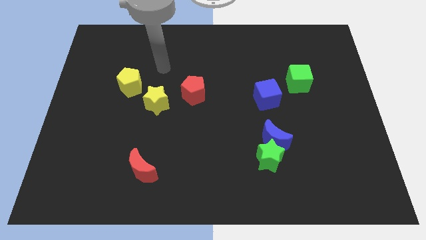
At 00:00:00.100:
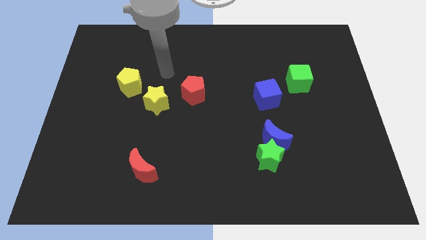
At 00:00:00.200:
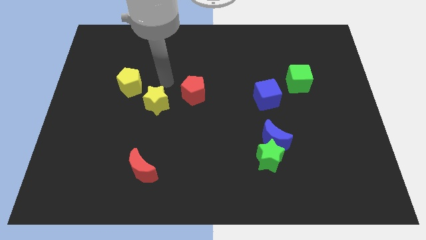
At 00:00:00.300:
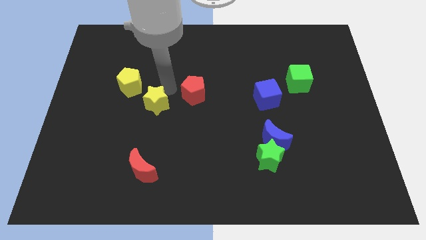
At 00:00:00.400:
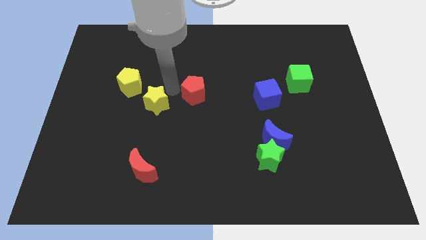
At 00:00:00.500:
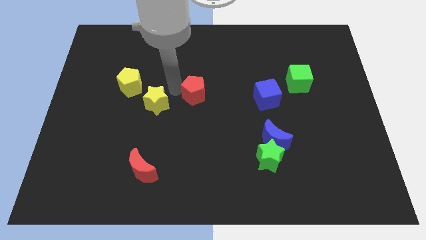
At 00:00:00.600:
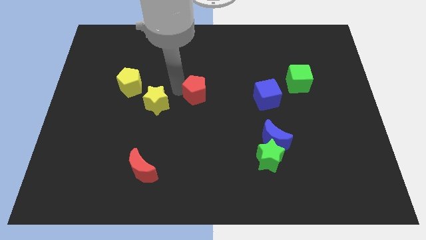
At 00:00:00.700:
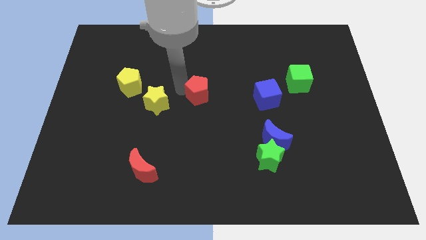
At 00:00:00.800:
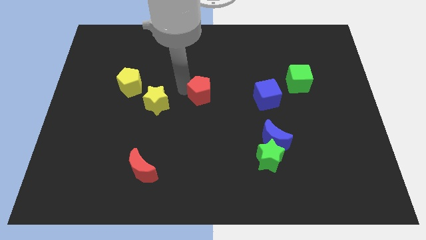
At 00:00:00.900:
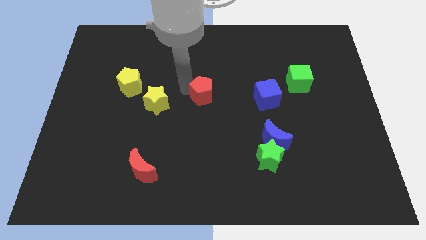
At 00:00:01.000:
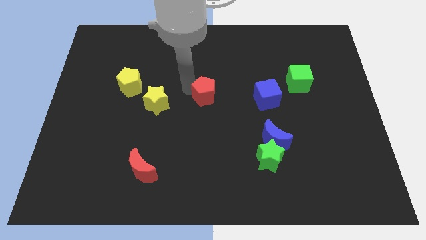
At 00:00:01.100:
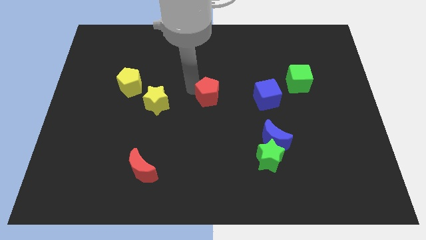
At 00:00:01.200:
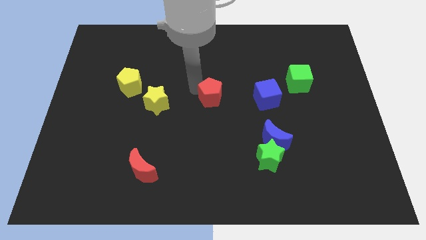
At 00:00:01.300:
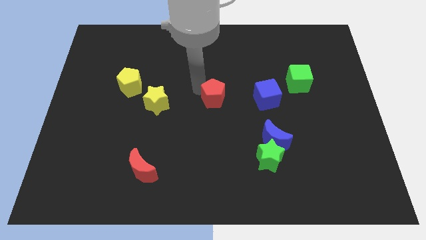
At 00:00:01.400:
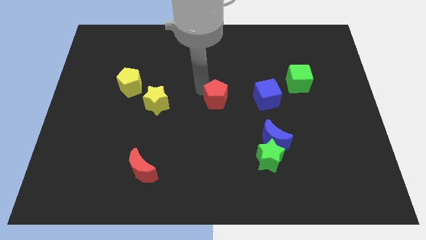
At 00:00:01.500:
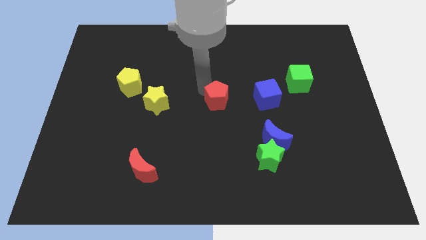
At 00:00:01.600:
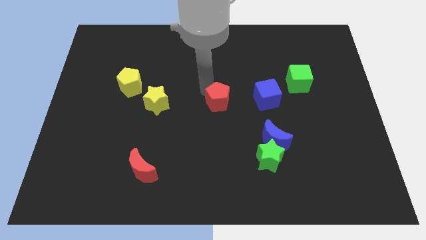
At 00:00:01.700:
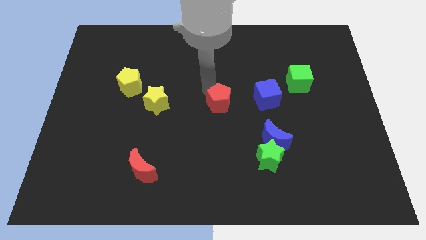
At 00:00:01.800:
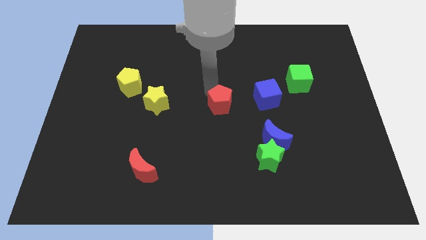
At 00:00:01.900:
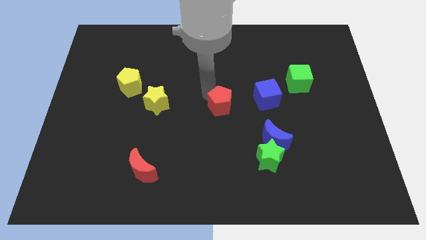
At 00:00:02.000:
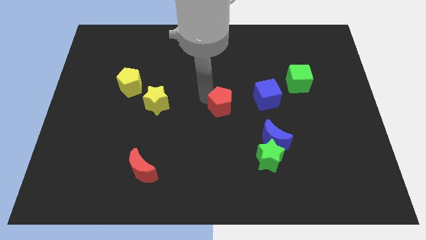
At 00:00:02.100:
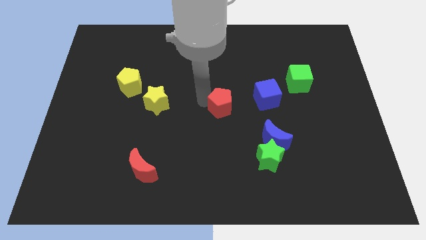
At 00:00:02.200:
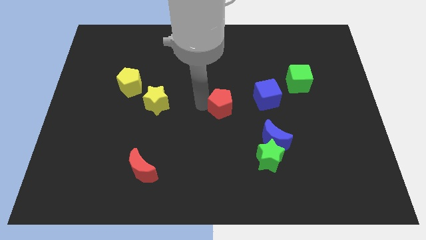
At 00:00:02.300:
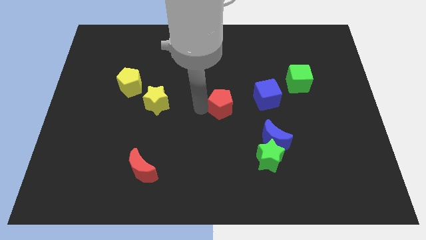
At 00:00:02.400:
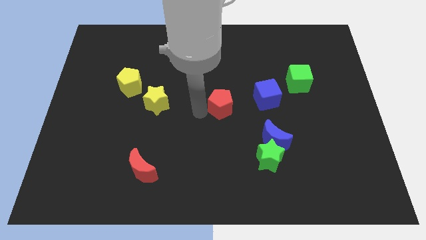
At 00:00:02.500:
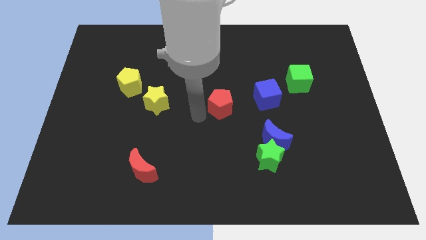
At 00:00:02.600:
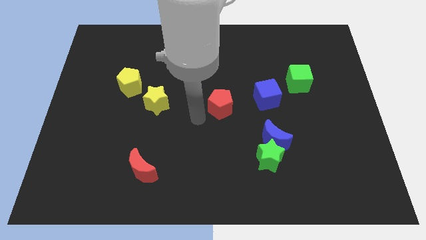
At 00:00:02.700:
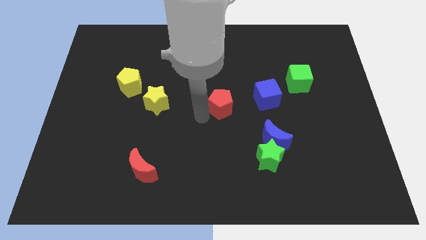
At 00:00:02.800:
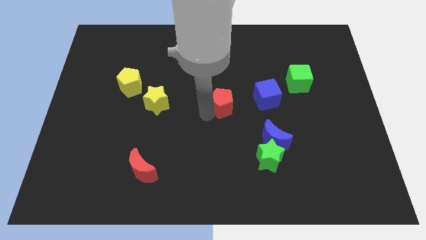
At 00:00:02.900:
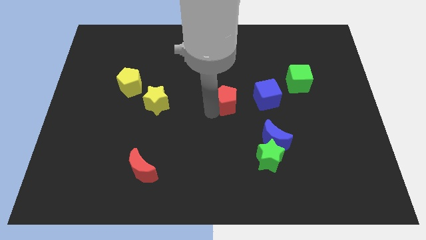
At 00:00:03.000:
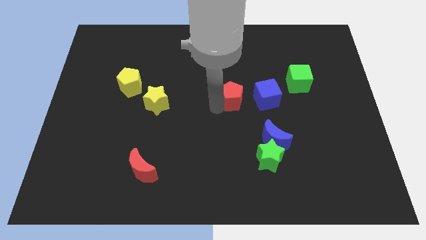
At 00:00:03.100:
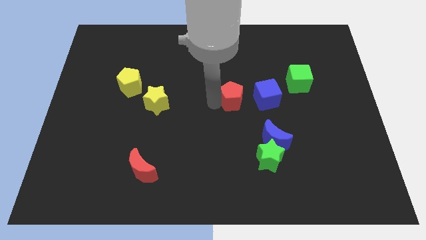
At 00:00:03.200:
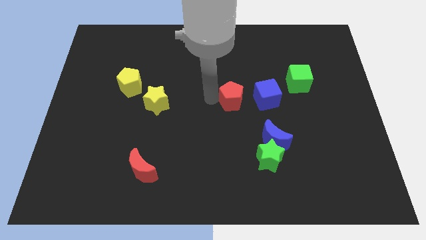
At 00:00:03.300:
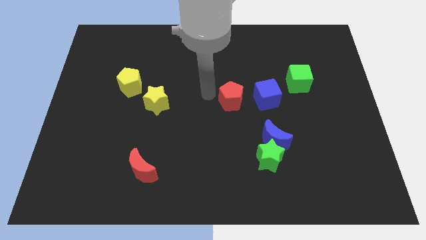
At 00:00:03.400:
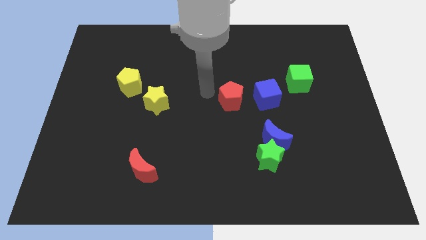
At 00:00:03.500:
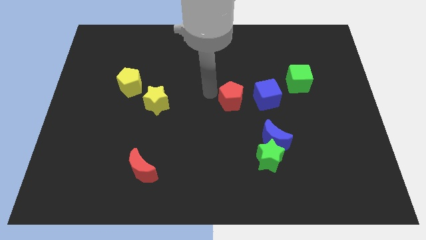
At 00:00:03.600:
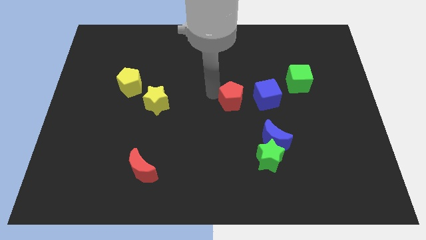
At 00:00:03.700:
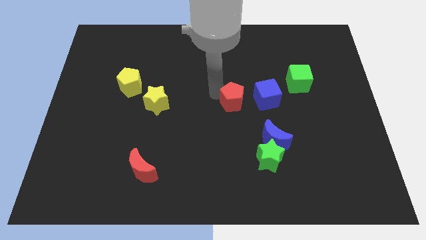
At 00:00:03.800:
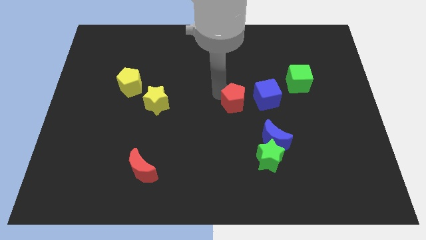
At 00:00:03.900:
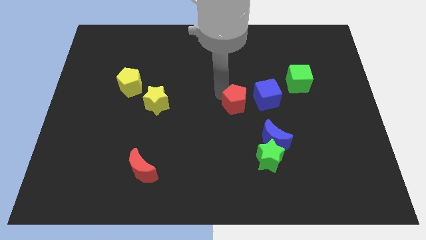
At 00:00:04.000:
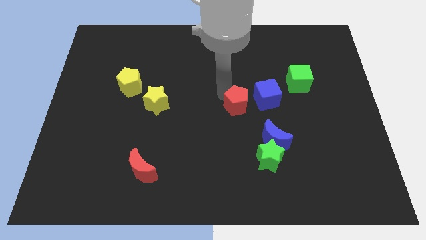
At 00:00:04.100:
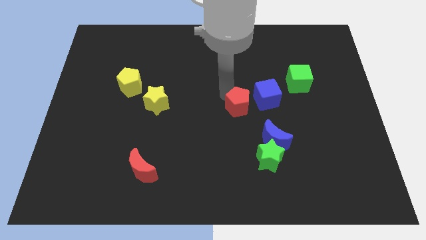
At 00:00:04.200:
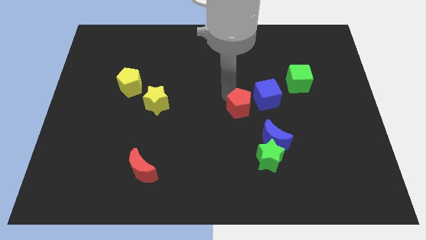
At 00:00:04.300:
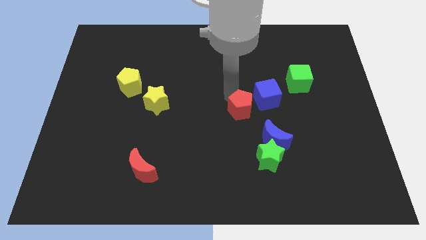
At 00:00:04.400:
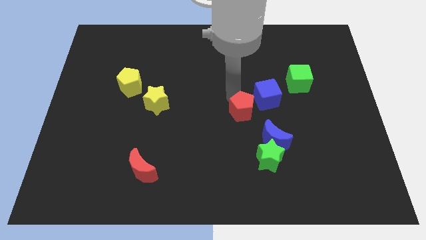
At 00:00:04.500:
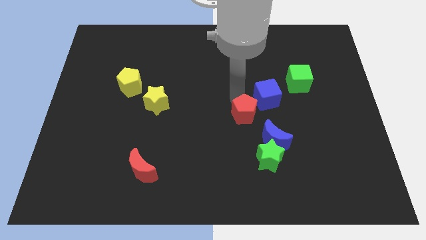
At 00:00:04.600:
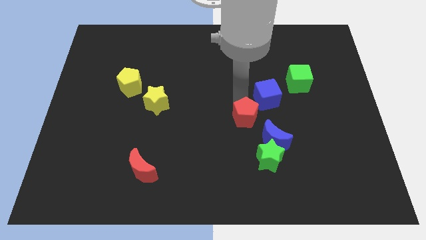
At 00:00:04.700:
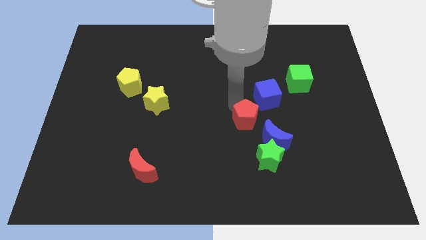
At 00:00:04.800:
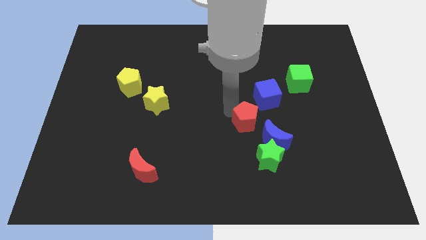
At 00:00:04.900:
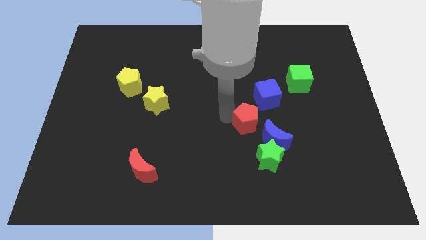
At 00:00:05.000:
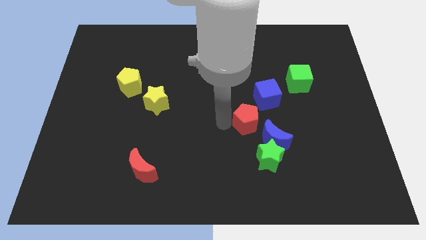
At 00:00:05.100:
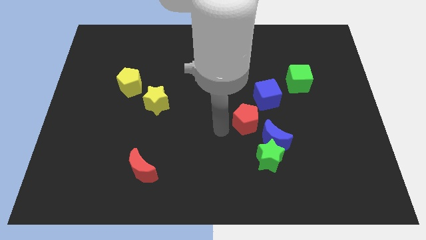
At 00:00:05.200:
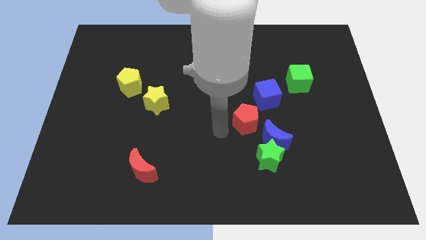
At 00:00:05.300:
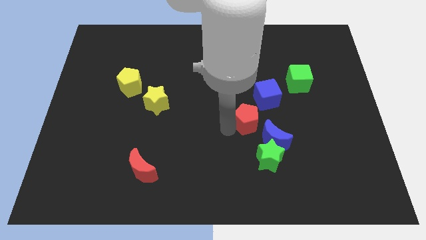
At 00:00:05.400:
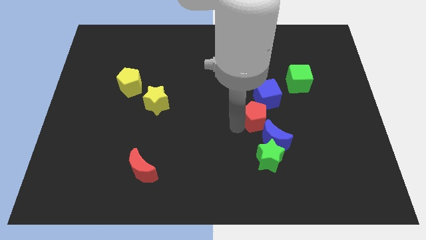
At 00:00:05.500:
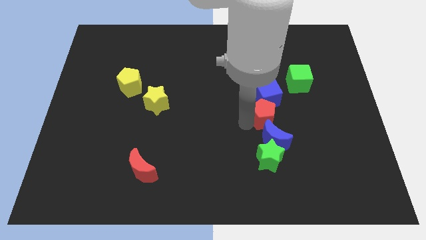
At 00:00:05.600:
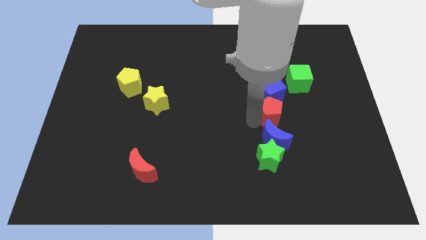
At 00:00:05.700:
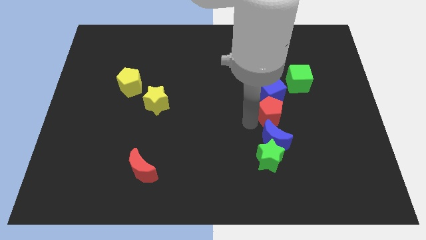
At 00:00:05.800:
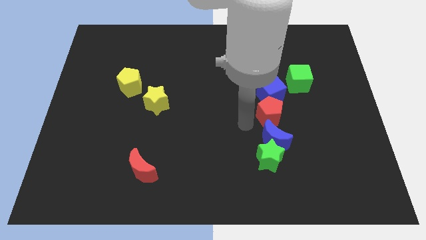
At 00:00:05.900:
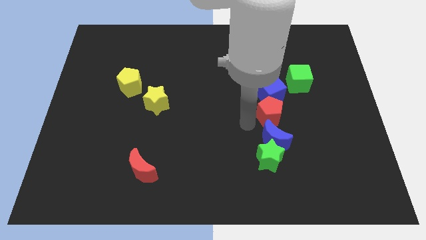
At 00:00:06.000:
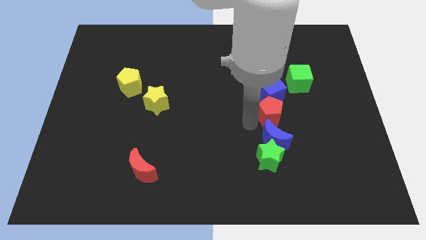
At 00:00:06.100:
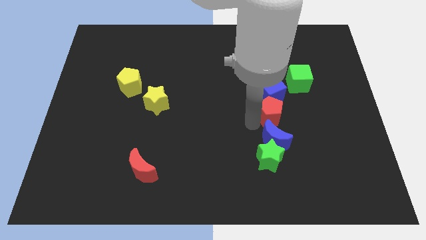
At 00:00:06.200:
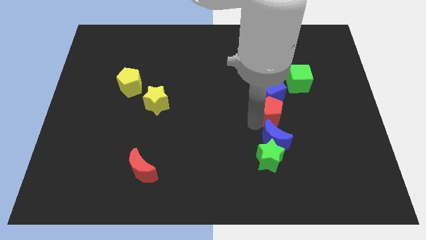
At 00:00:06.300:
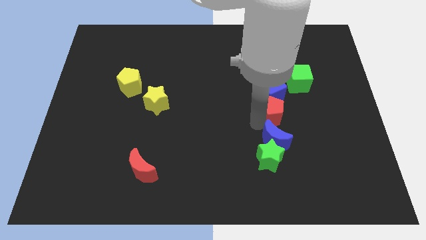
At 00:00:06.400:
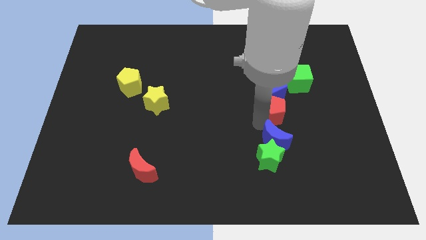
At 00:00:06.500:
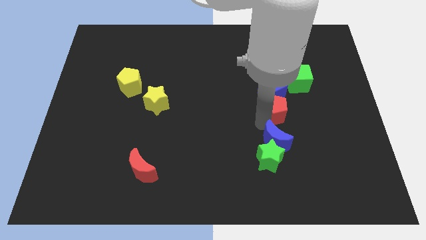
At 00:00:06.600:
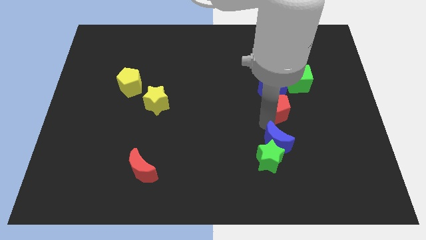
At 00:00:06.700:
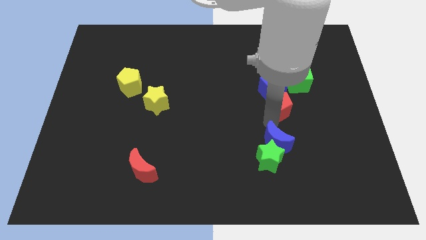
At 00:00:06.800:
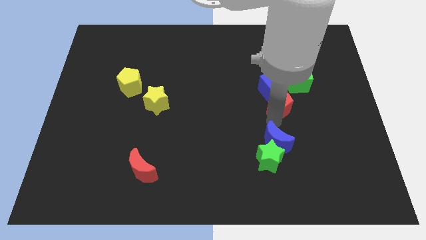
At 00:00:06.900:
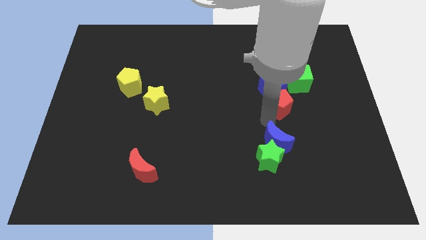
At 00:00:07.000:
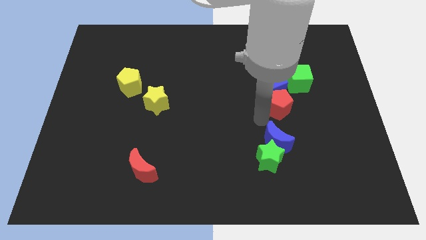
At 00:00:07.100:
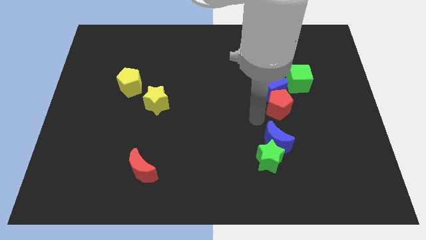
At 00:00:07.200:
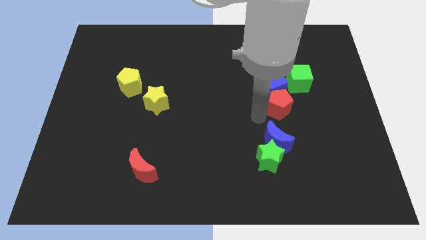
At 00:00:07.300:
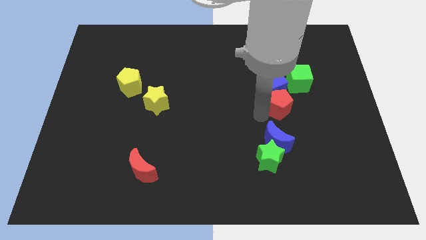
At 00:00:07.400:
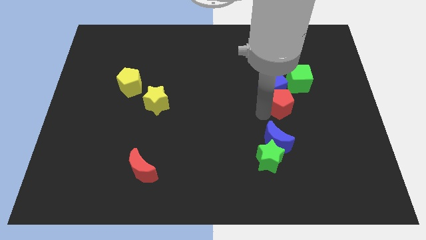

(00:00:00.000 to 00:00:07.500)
push the red pentagon to the right

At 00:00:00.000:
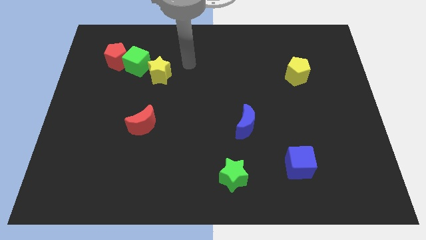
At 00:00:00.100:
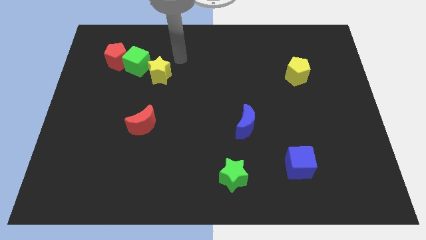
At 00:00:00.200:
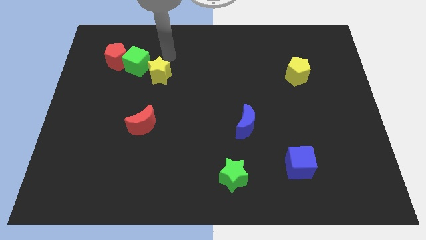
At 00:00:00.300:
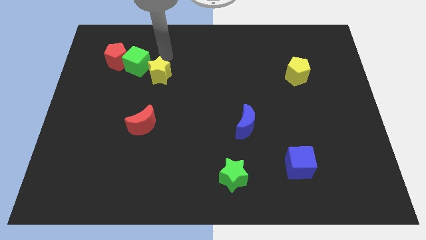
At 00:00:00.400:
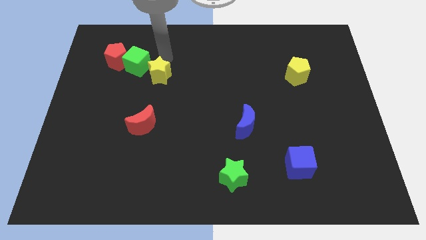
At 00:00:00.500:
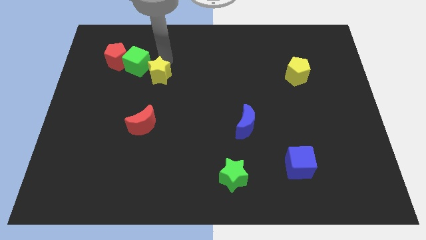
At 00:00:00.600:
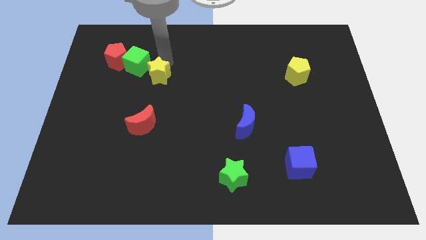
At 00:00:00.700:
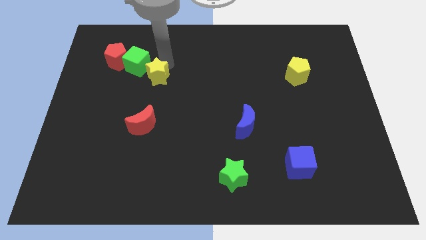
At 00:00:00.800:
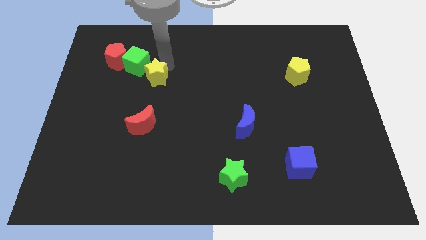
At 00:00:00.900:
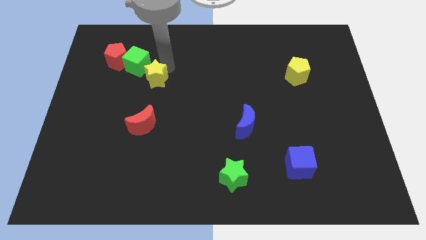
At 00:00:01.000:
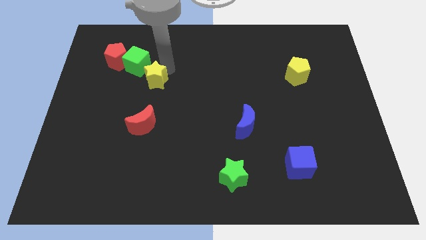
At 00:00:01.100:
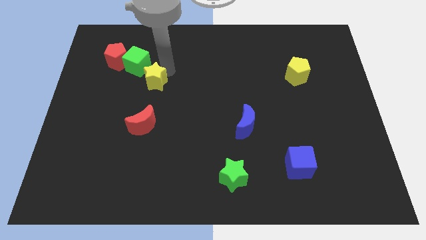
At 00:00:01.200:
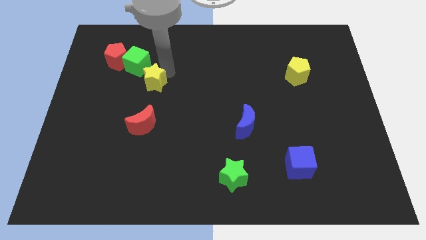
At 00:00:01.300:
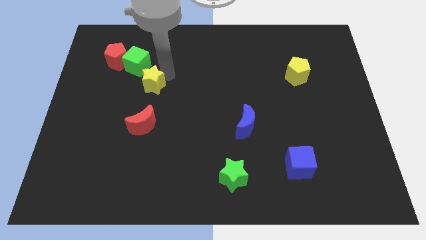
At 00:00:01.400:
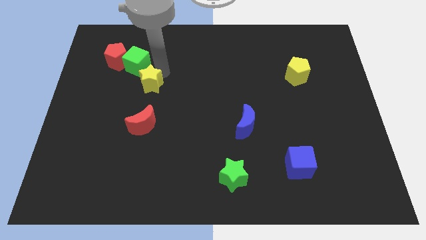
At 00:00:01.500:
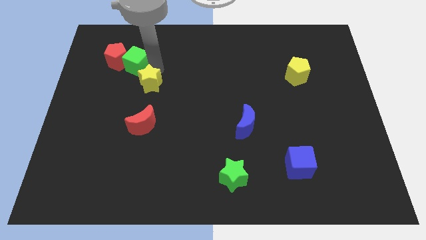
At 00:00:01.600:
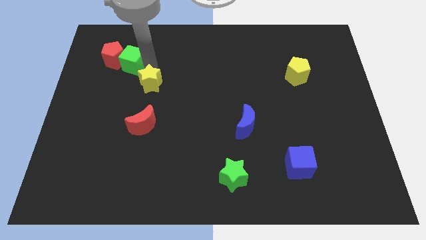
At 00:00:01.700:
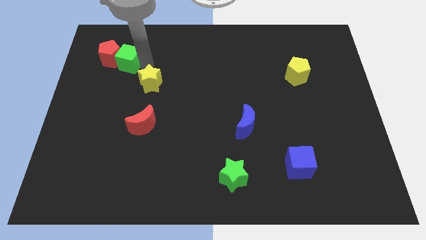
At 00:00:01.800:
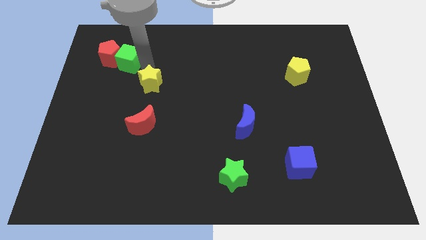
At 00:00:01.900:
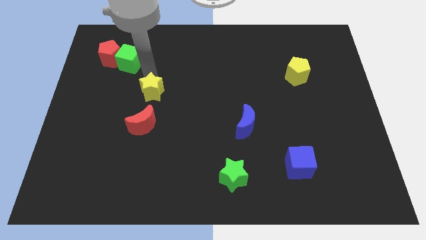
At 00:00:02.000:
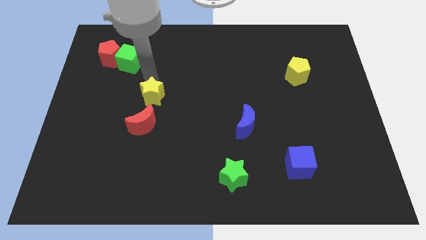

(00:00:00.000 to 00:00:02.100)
slightly slide the yellow star downwards
